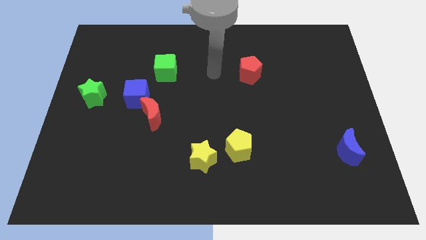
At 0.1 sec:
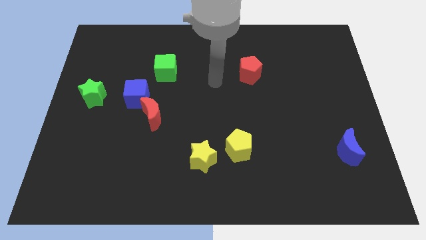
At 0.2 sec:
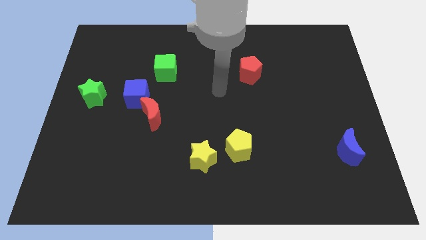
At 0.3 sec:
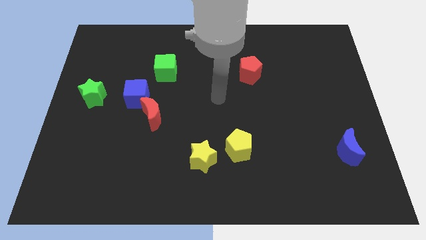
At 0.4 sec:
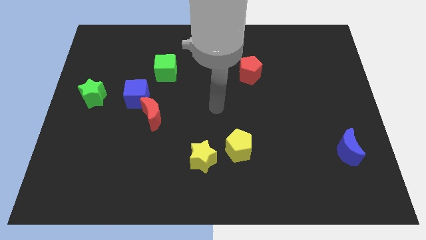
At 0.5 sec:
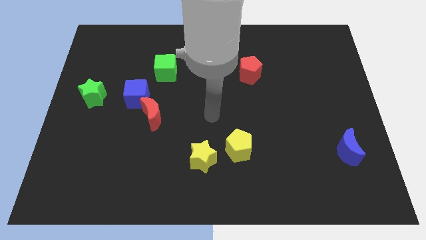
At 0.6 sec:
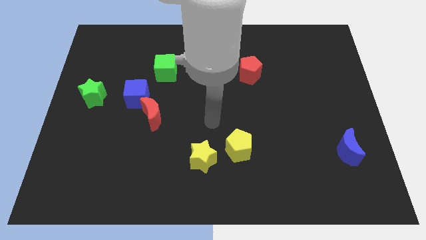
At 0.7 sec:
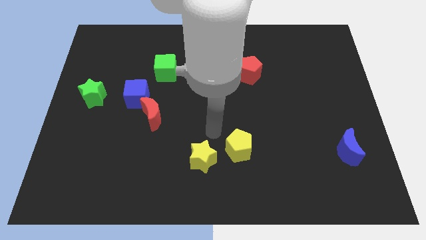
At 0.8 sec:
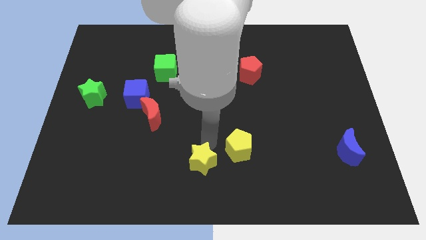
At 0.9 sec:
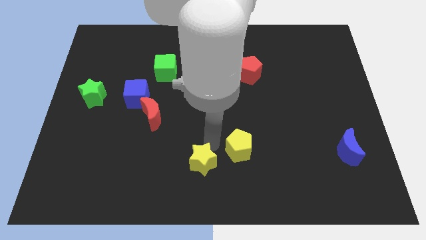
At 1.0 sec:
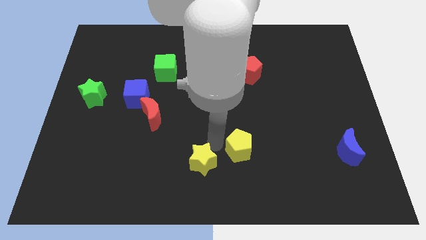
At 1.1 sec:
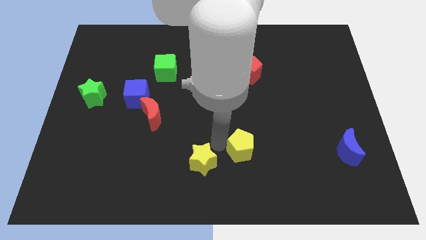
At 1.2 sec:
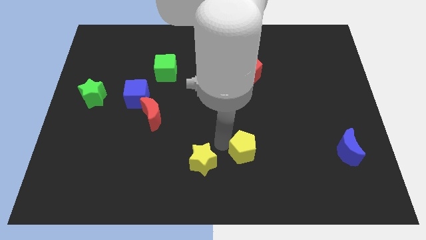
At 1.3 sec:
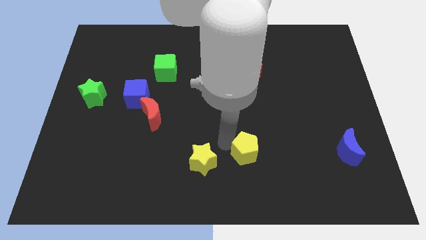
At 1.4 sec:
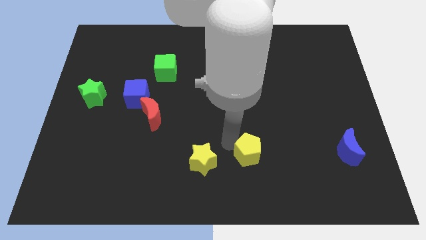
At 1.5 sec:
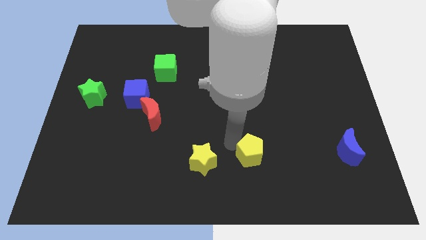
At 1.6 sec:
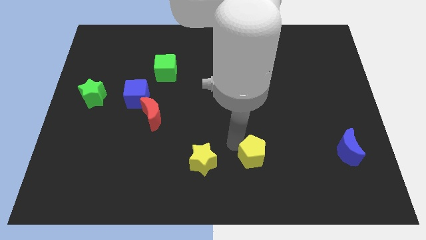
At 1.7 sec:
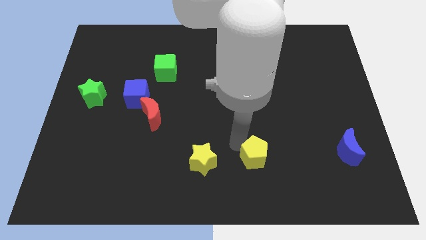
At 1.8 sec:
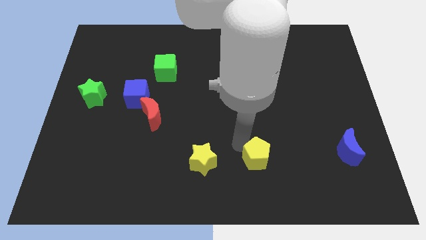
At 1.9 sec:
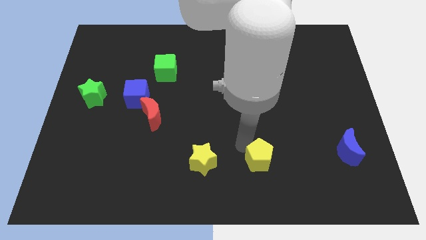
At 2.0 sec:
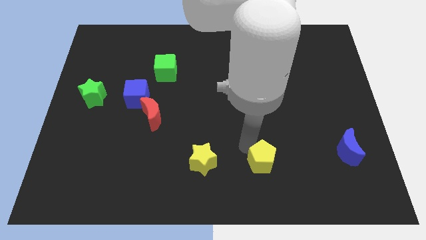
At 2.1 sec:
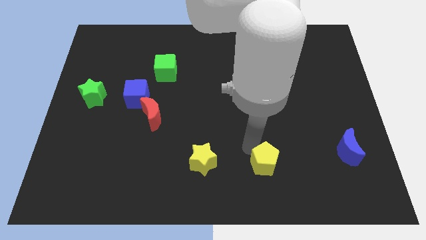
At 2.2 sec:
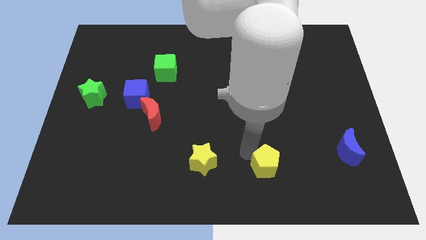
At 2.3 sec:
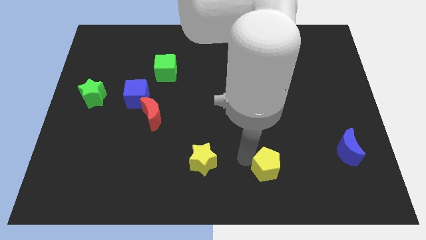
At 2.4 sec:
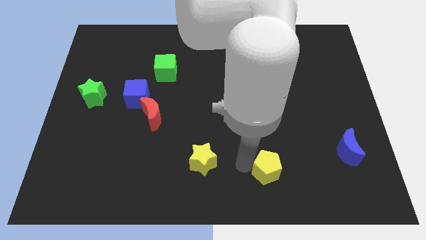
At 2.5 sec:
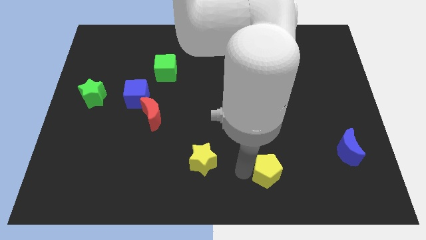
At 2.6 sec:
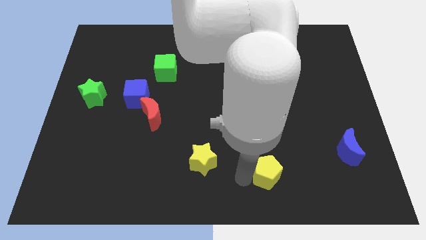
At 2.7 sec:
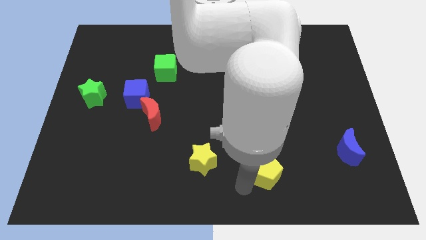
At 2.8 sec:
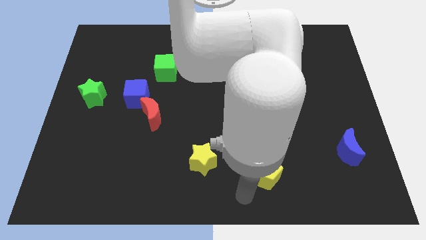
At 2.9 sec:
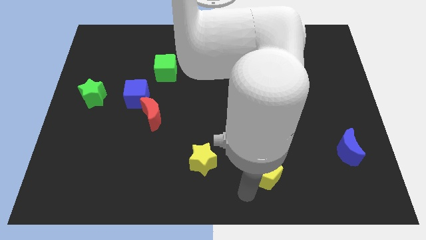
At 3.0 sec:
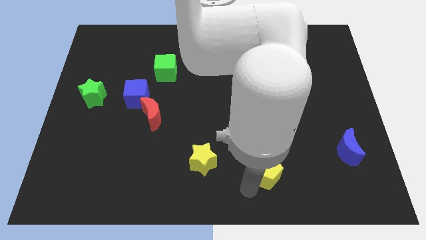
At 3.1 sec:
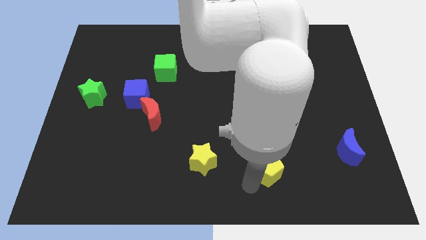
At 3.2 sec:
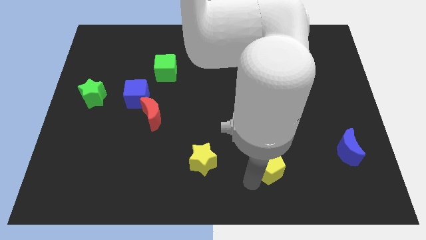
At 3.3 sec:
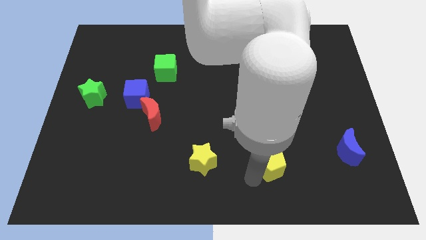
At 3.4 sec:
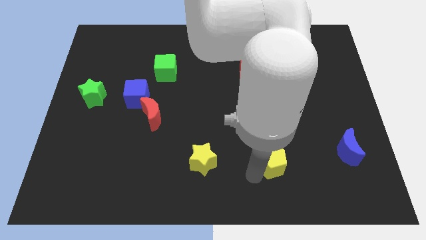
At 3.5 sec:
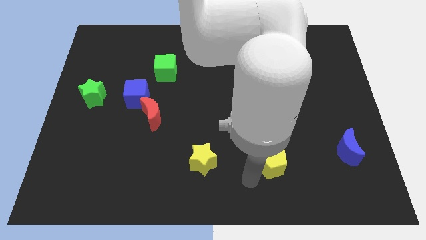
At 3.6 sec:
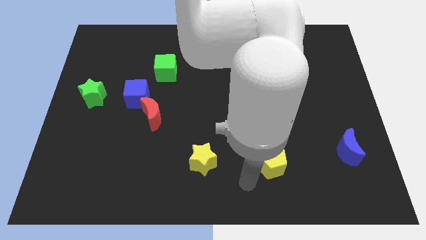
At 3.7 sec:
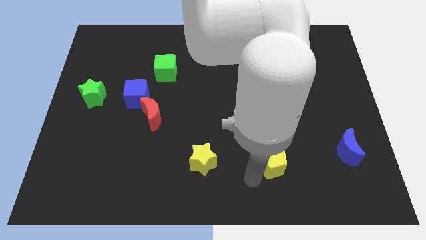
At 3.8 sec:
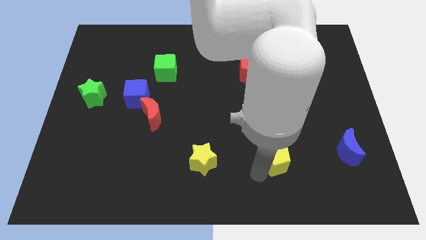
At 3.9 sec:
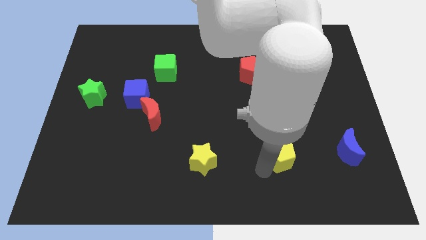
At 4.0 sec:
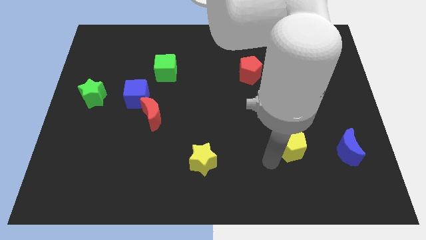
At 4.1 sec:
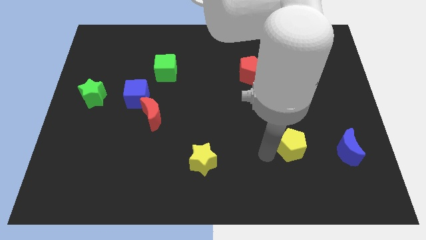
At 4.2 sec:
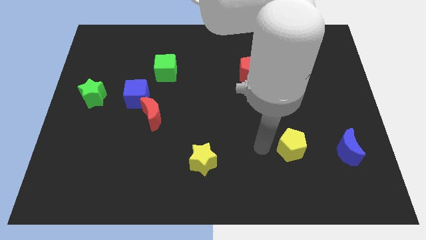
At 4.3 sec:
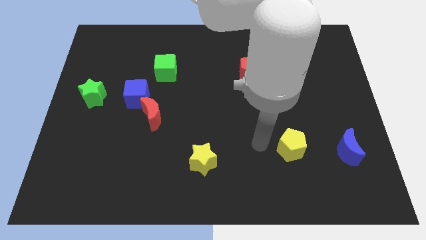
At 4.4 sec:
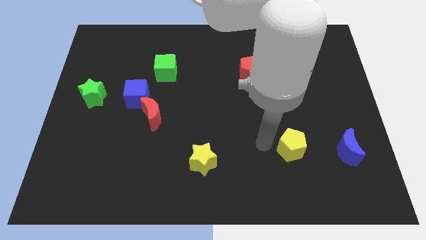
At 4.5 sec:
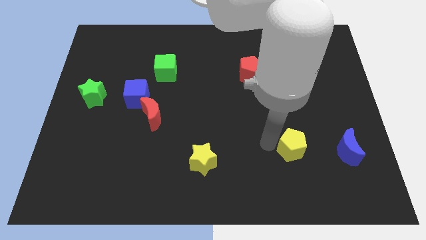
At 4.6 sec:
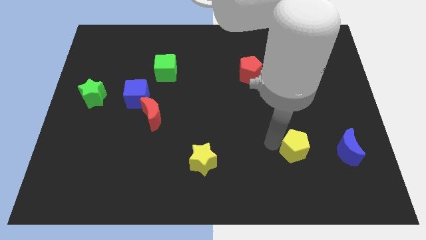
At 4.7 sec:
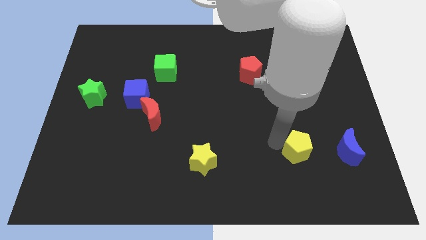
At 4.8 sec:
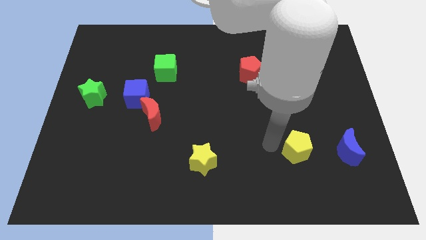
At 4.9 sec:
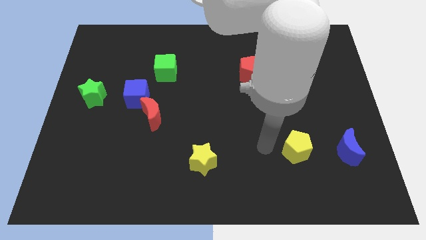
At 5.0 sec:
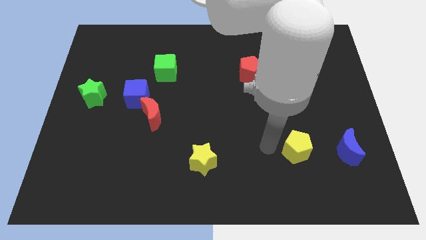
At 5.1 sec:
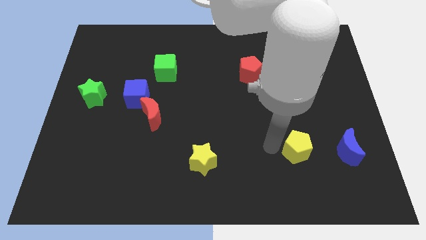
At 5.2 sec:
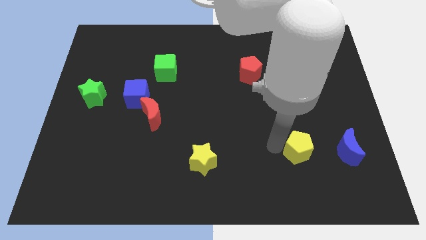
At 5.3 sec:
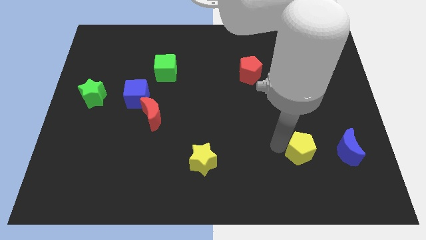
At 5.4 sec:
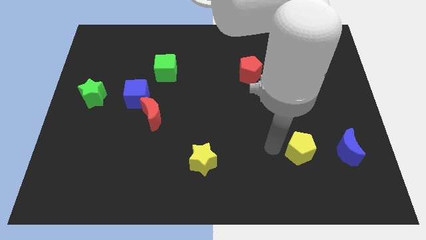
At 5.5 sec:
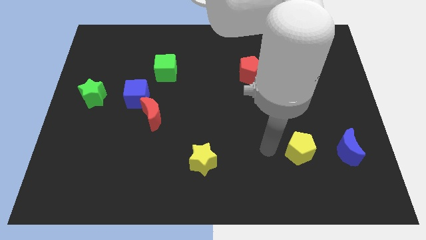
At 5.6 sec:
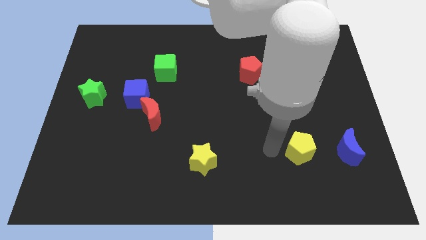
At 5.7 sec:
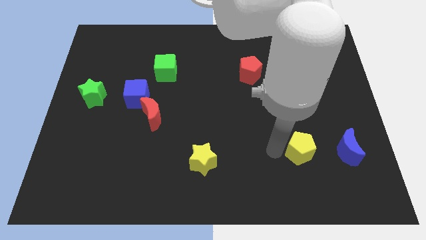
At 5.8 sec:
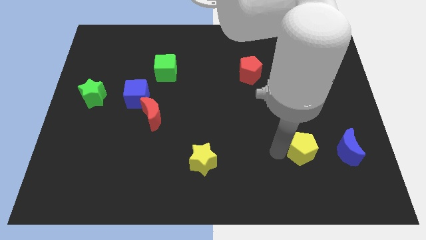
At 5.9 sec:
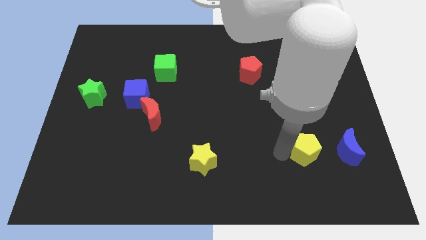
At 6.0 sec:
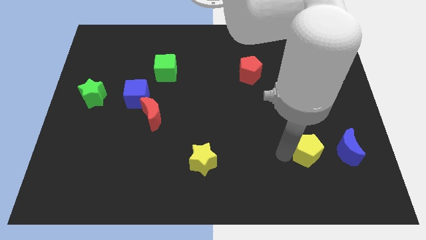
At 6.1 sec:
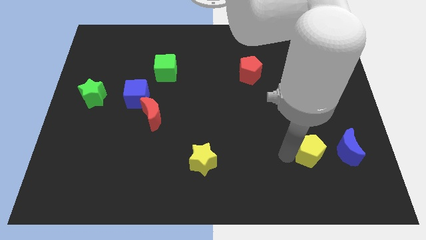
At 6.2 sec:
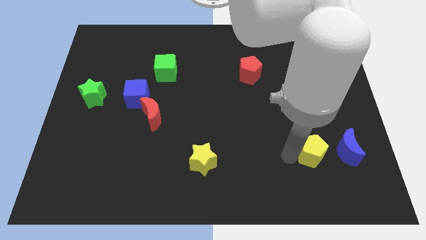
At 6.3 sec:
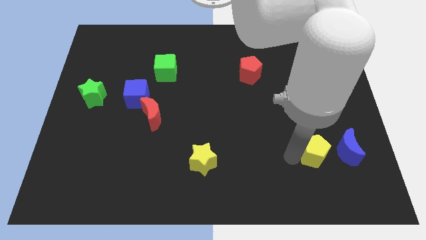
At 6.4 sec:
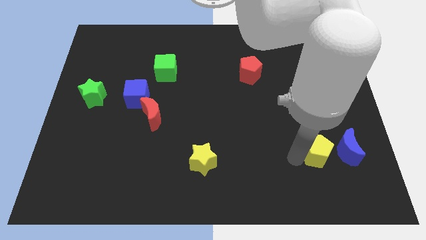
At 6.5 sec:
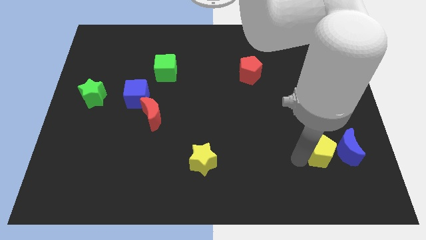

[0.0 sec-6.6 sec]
put the yellow pentagon close to the blue moon

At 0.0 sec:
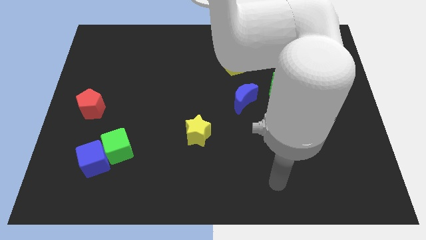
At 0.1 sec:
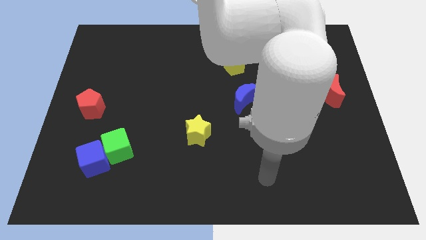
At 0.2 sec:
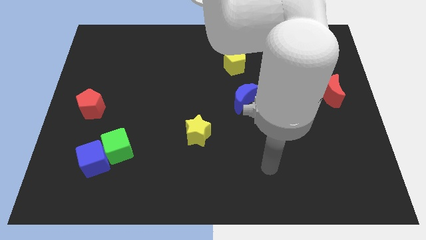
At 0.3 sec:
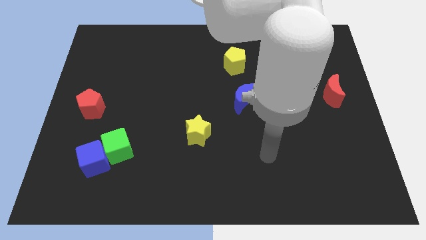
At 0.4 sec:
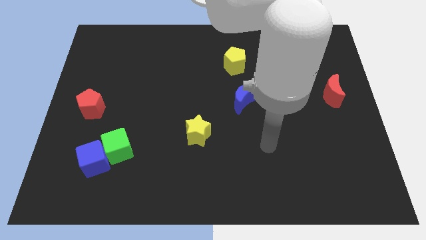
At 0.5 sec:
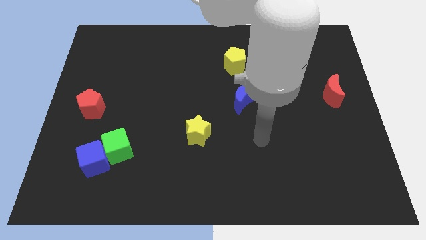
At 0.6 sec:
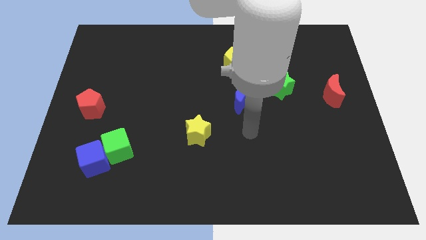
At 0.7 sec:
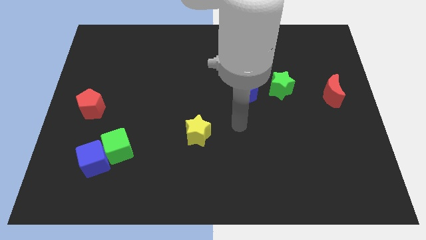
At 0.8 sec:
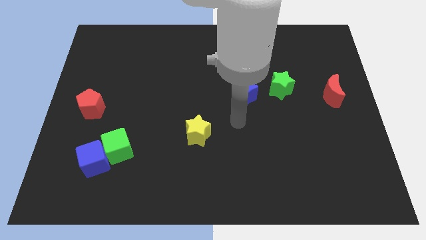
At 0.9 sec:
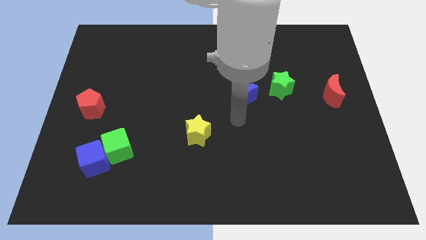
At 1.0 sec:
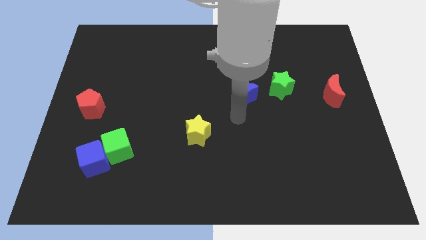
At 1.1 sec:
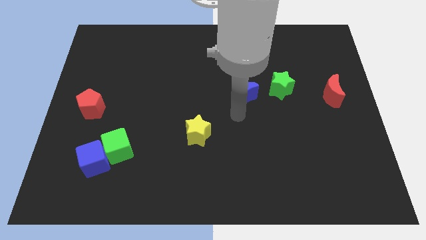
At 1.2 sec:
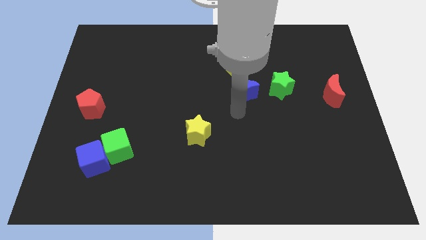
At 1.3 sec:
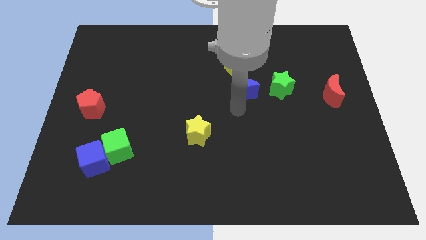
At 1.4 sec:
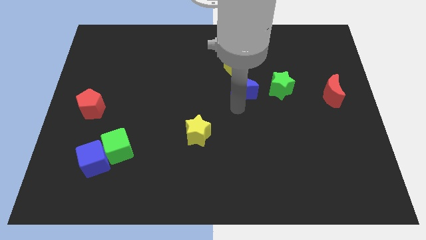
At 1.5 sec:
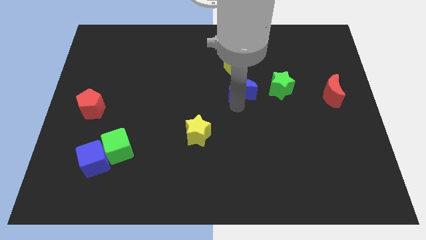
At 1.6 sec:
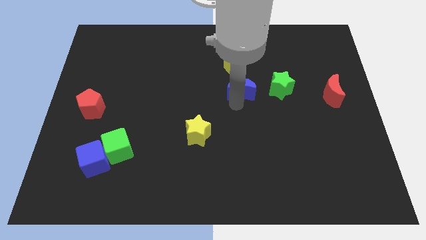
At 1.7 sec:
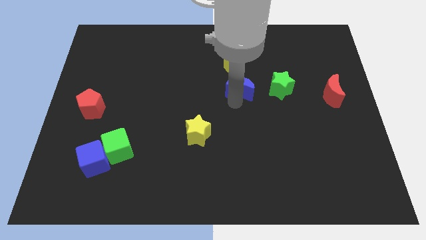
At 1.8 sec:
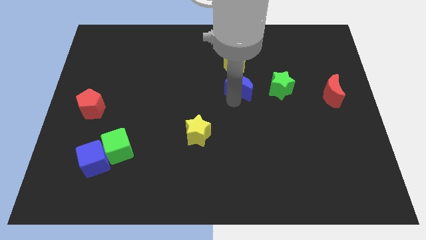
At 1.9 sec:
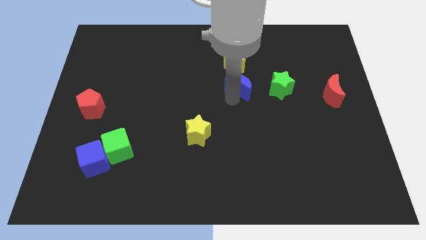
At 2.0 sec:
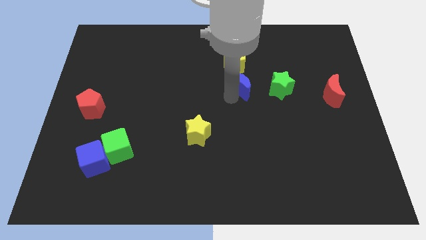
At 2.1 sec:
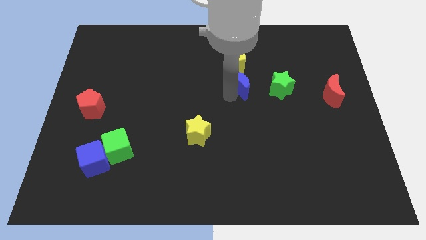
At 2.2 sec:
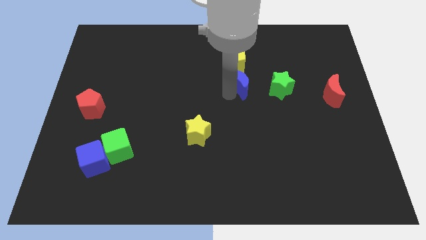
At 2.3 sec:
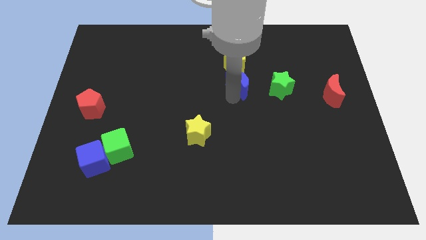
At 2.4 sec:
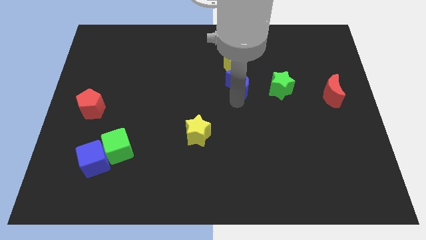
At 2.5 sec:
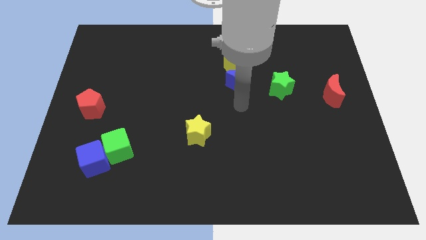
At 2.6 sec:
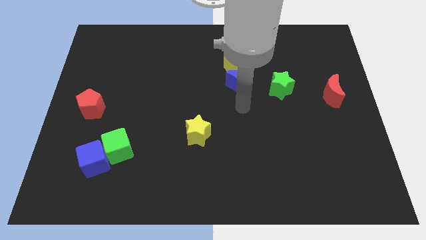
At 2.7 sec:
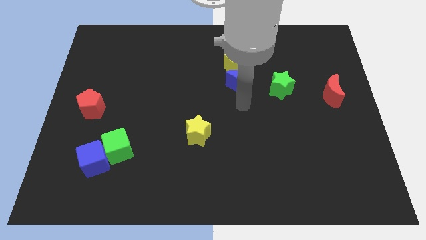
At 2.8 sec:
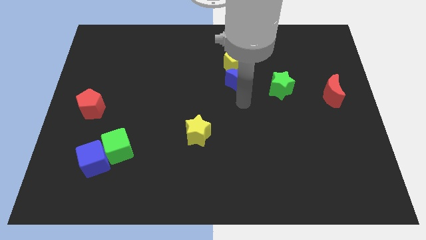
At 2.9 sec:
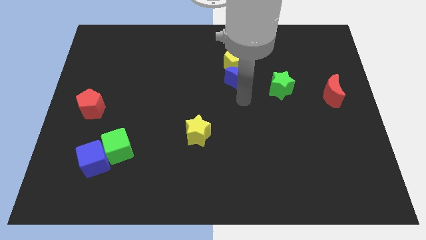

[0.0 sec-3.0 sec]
push the blue moon close to the yellow pentagon
